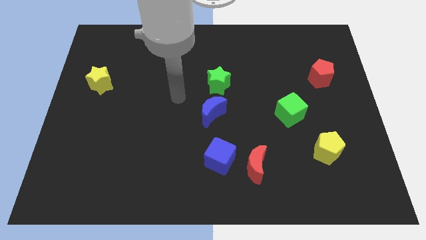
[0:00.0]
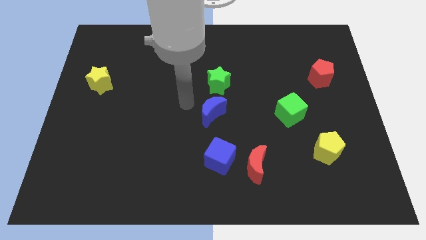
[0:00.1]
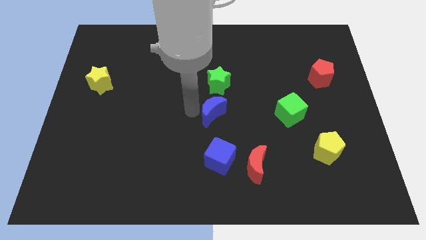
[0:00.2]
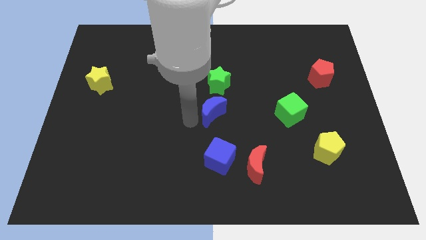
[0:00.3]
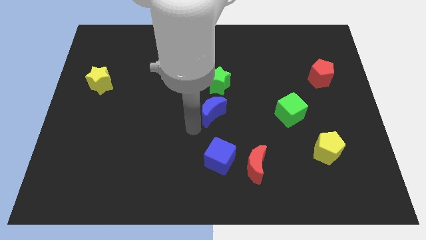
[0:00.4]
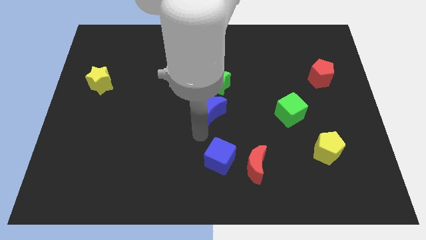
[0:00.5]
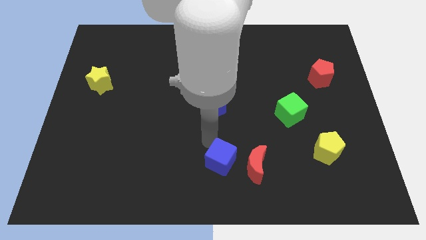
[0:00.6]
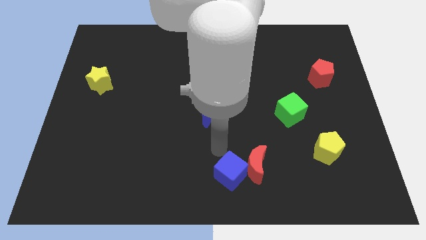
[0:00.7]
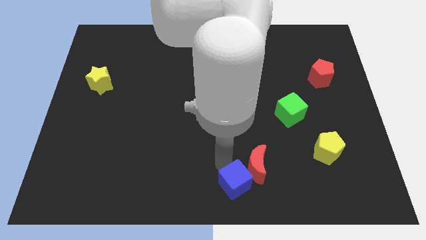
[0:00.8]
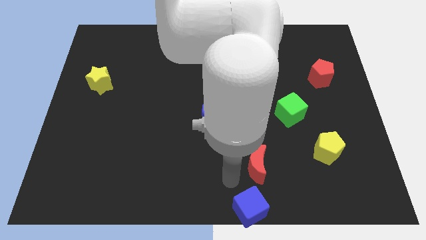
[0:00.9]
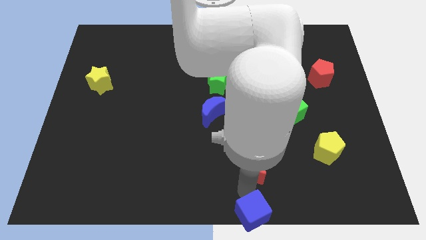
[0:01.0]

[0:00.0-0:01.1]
separate the red moon from the blue cube

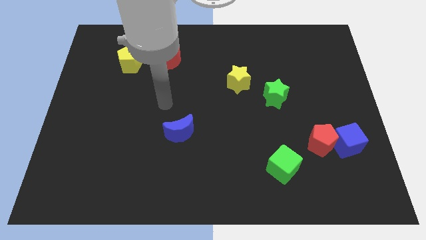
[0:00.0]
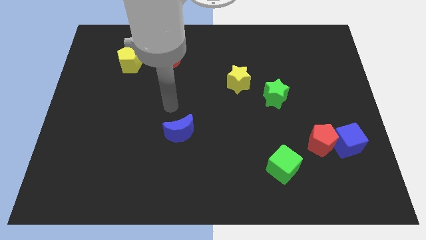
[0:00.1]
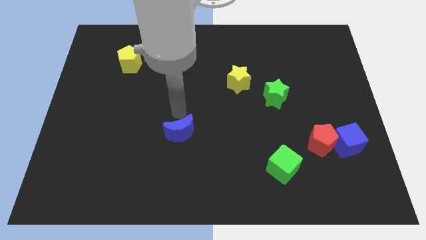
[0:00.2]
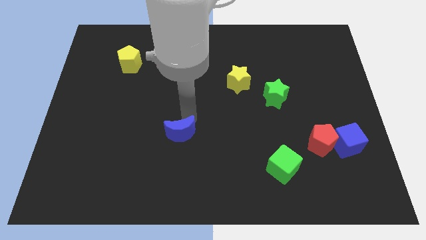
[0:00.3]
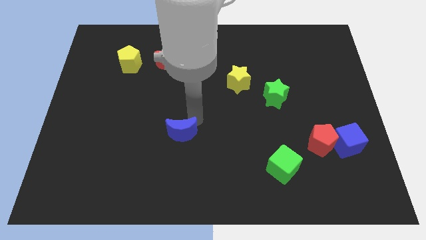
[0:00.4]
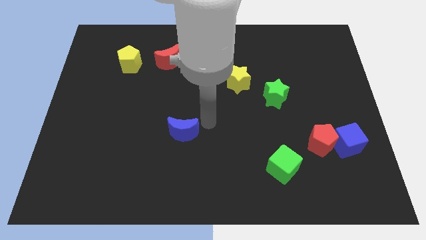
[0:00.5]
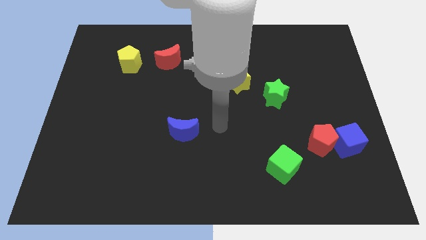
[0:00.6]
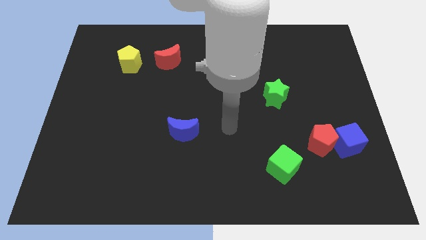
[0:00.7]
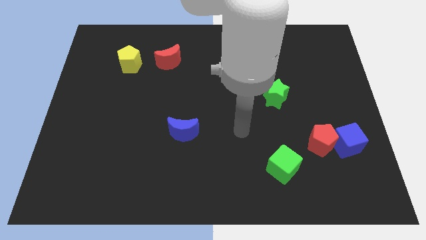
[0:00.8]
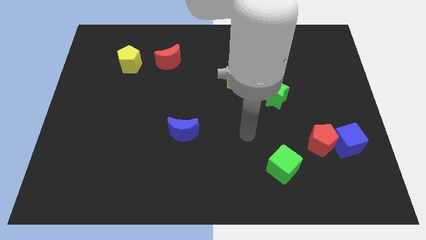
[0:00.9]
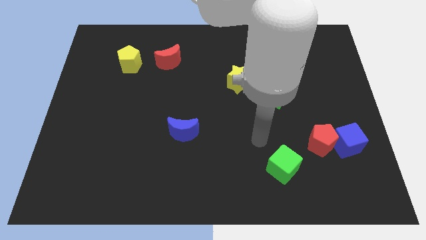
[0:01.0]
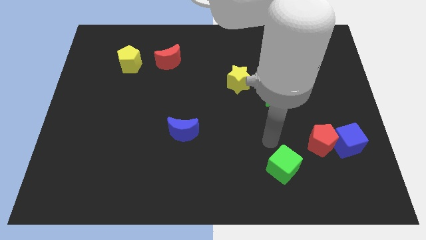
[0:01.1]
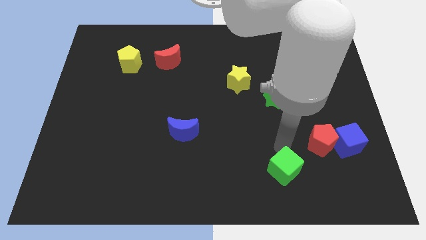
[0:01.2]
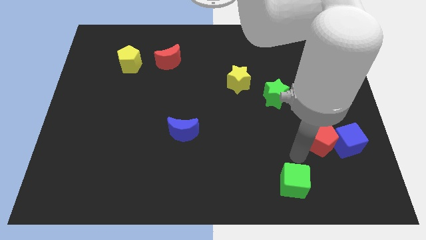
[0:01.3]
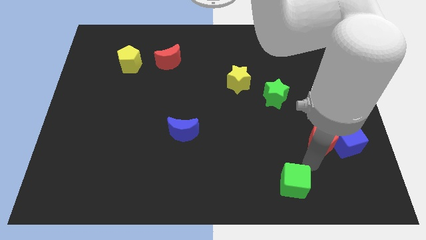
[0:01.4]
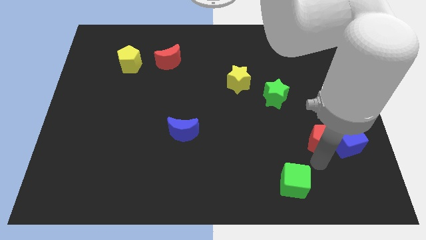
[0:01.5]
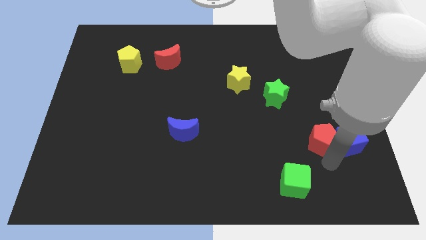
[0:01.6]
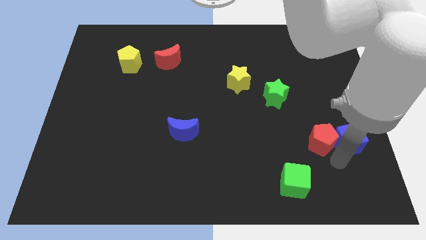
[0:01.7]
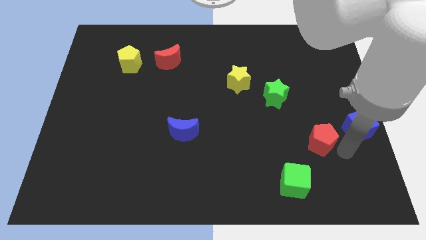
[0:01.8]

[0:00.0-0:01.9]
separate the red pentagon from the blue cube

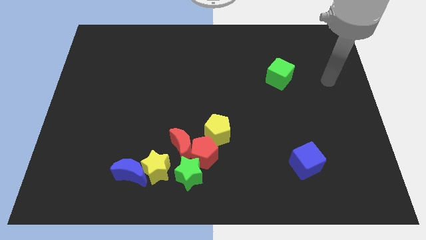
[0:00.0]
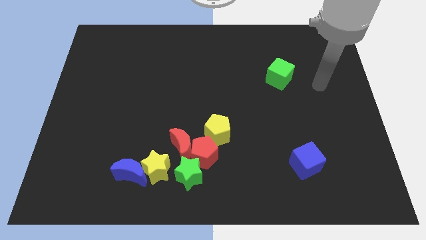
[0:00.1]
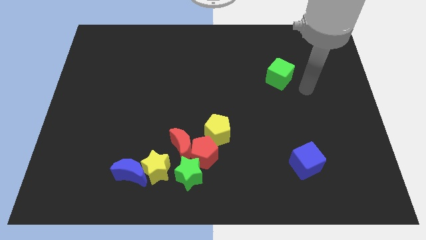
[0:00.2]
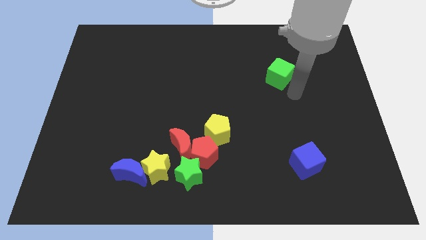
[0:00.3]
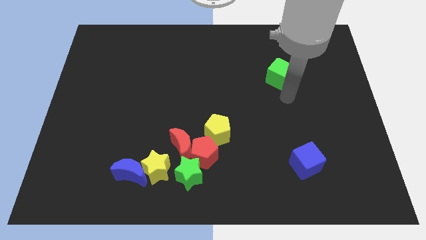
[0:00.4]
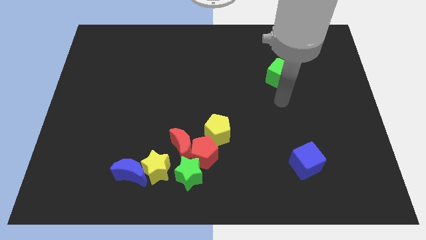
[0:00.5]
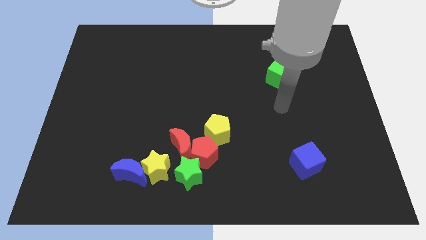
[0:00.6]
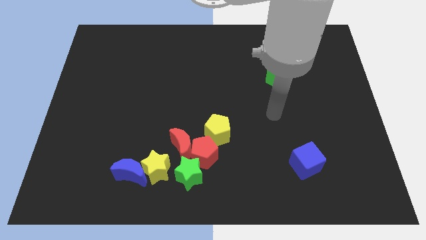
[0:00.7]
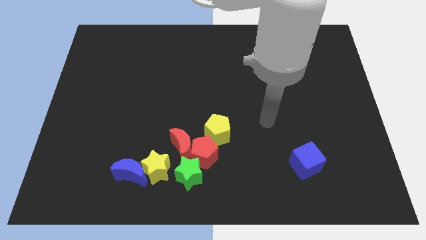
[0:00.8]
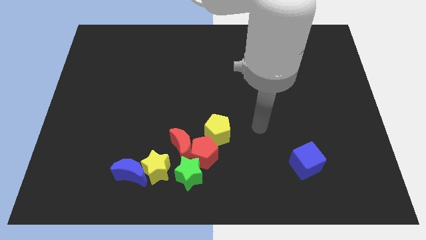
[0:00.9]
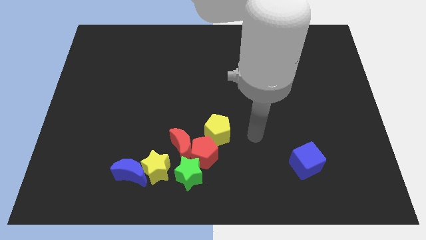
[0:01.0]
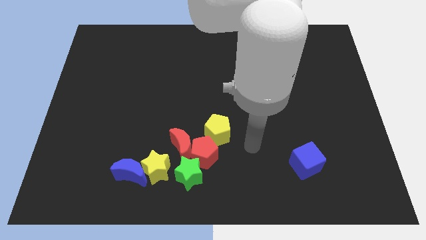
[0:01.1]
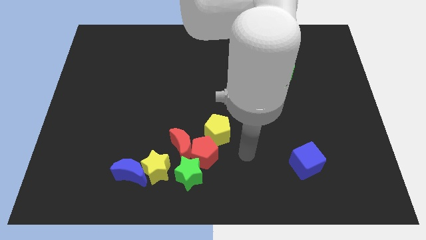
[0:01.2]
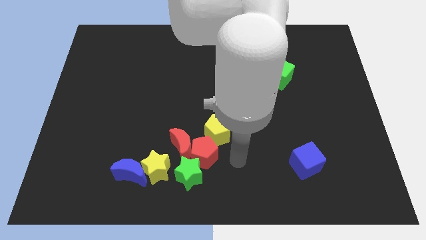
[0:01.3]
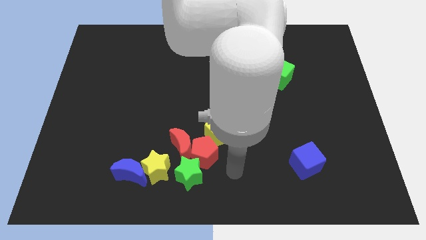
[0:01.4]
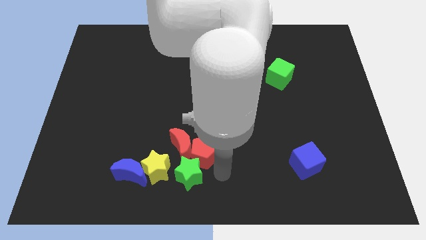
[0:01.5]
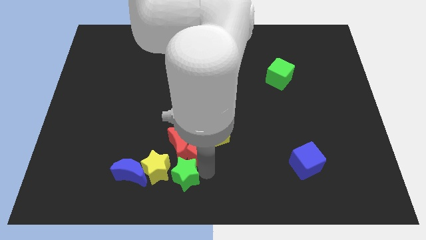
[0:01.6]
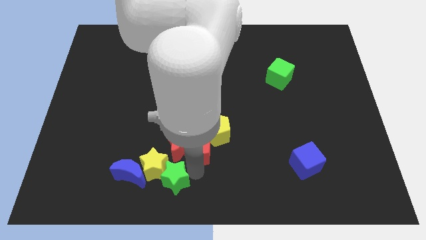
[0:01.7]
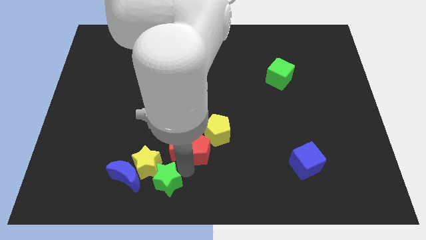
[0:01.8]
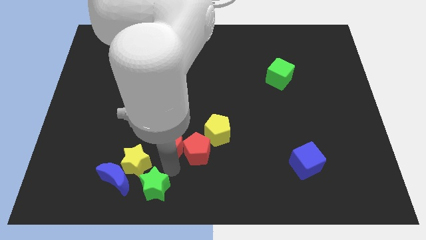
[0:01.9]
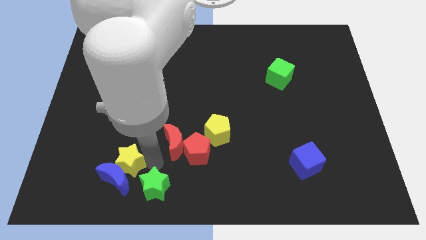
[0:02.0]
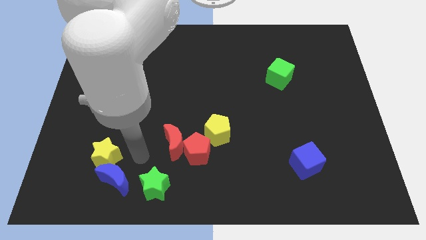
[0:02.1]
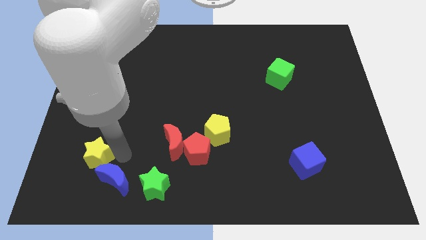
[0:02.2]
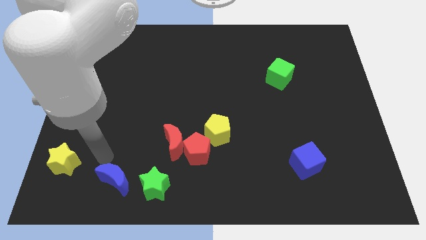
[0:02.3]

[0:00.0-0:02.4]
pull the blue moon apart from the yellow star

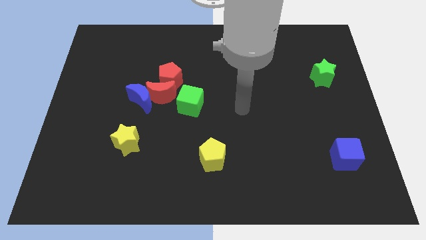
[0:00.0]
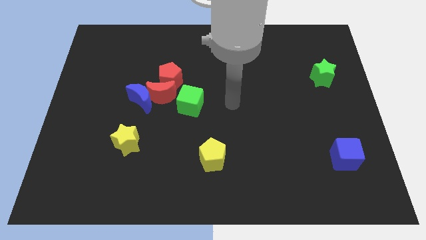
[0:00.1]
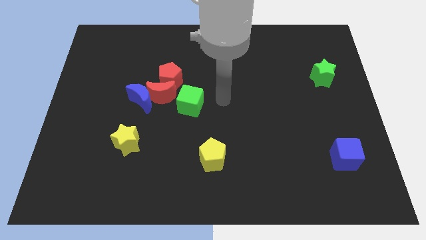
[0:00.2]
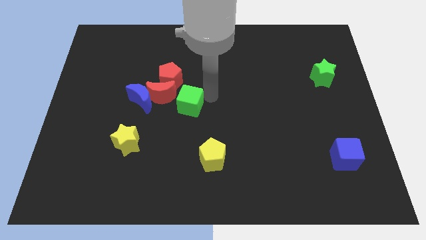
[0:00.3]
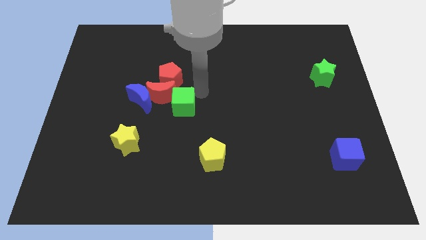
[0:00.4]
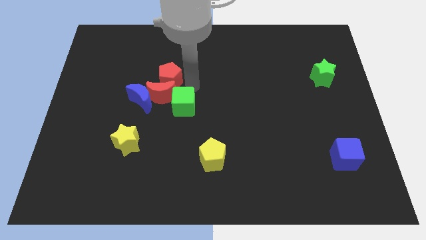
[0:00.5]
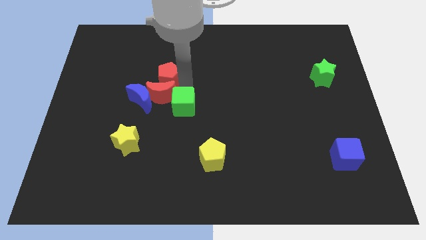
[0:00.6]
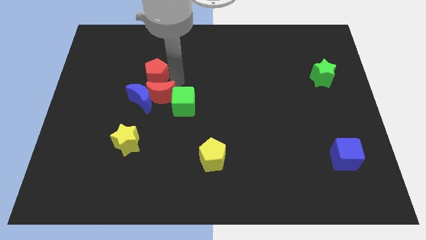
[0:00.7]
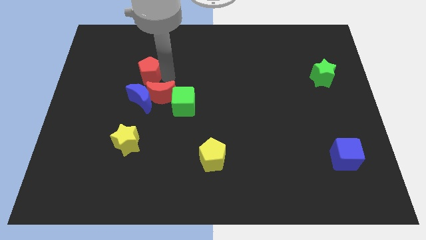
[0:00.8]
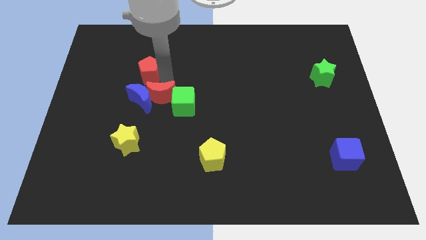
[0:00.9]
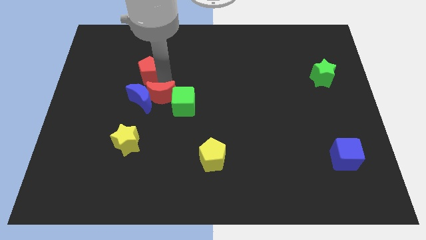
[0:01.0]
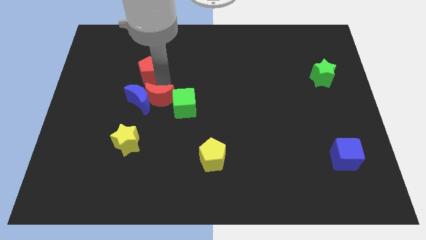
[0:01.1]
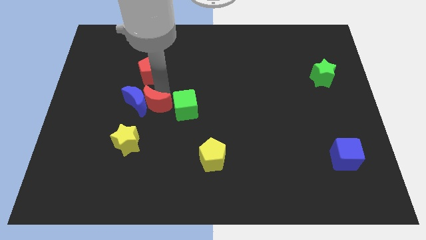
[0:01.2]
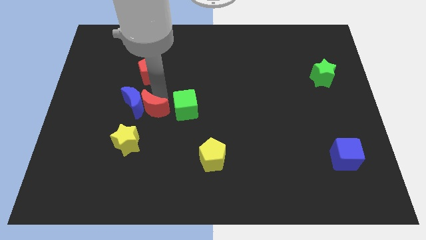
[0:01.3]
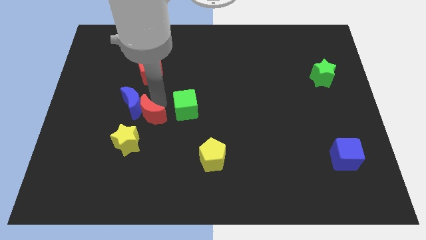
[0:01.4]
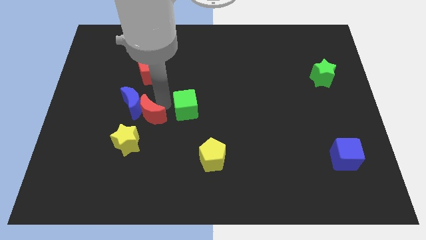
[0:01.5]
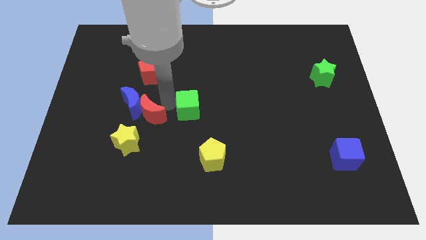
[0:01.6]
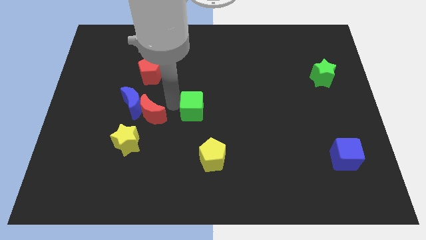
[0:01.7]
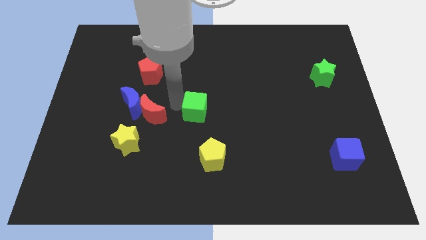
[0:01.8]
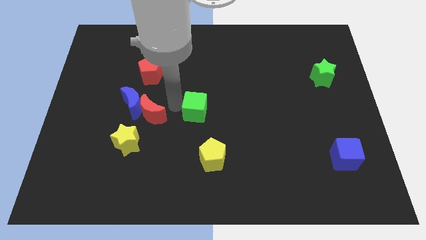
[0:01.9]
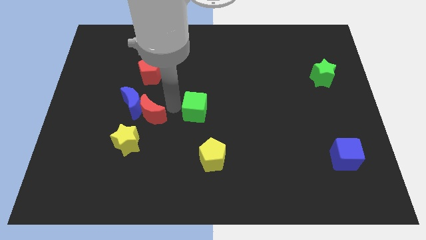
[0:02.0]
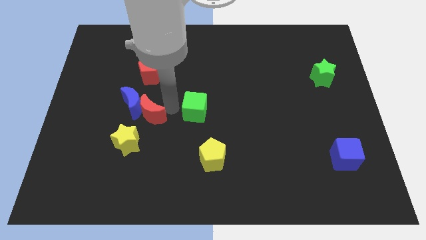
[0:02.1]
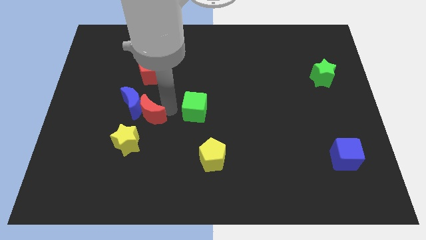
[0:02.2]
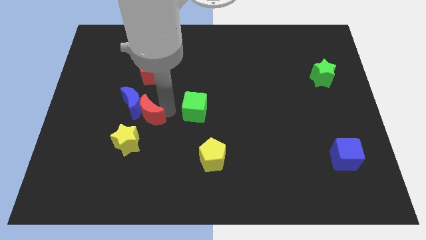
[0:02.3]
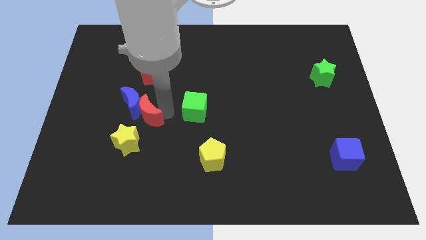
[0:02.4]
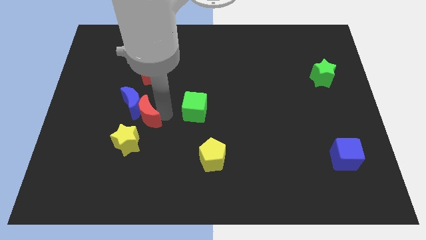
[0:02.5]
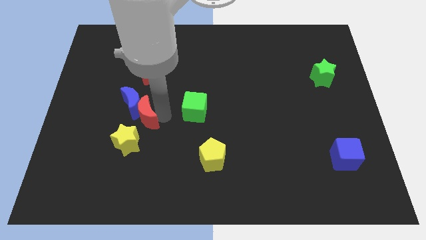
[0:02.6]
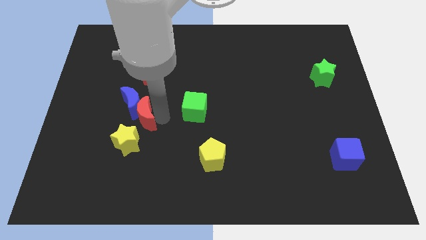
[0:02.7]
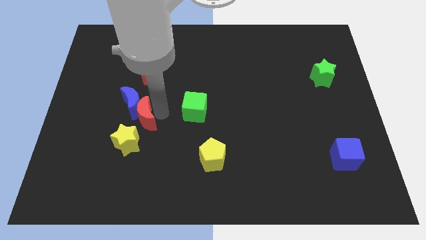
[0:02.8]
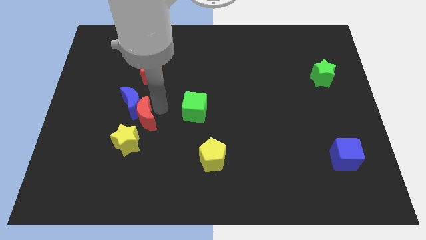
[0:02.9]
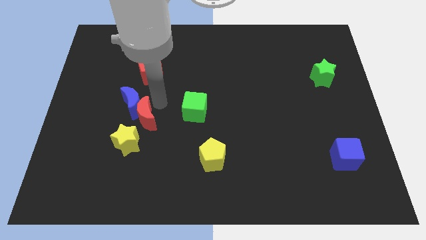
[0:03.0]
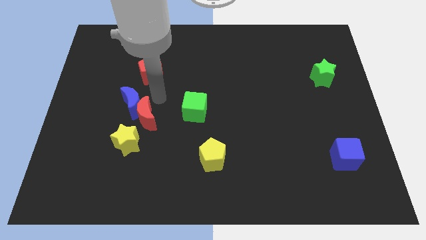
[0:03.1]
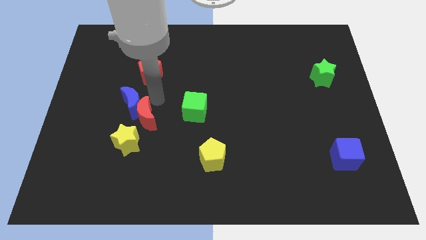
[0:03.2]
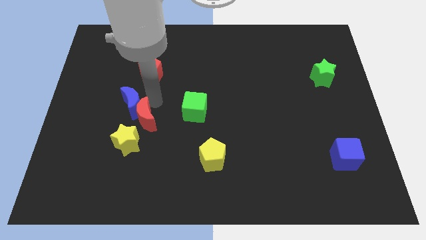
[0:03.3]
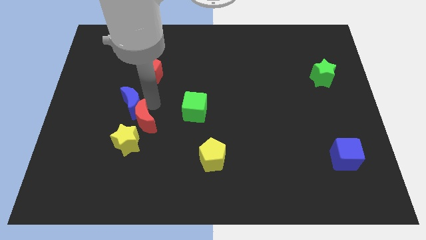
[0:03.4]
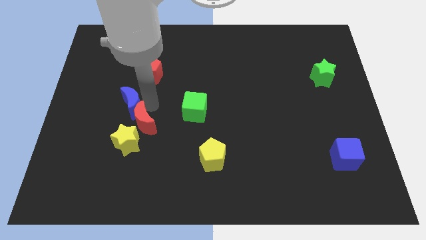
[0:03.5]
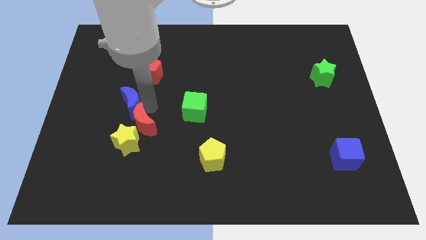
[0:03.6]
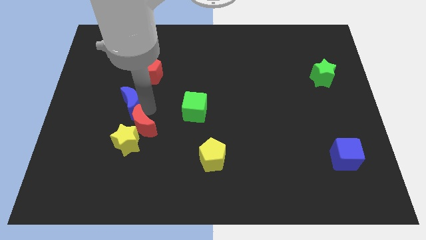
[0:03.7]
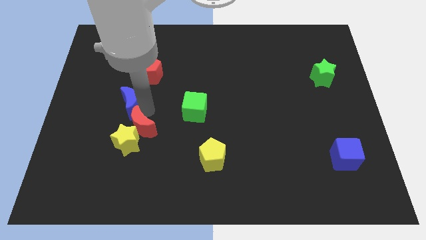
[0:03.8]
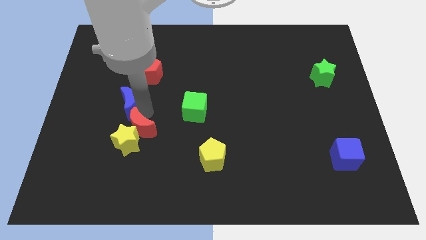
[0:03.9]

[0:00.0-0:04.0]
separate the red moon from the blue moon, red pentagon, and green cube

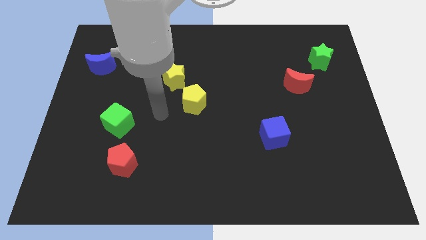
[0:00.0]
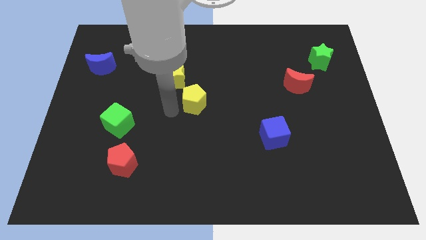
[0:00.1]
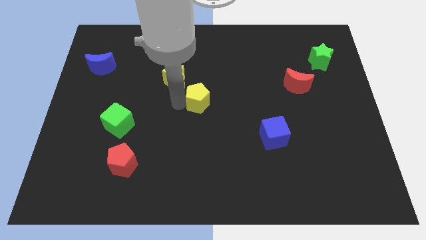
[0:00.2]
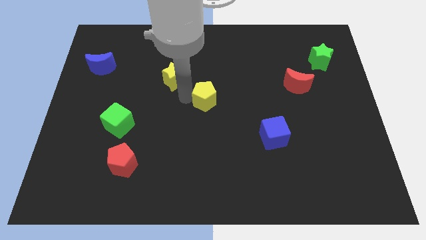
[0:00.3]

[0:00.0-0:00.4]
separate the yellow star from the yellow pentagon
